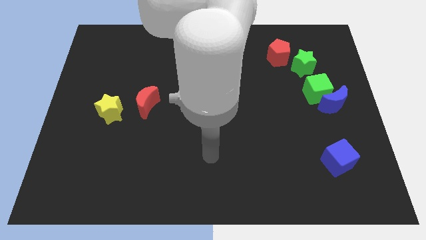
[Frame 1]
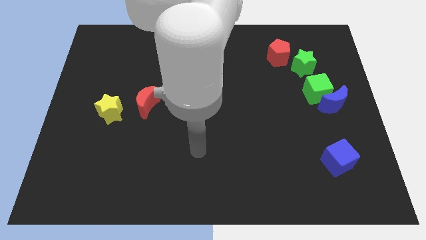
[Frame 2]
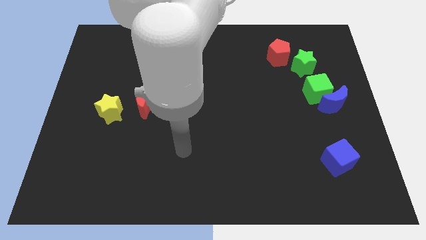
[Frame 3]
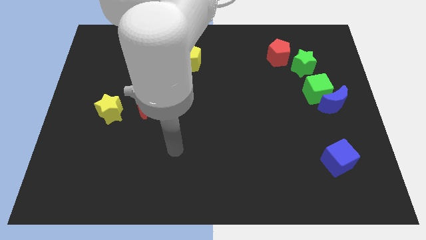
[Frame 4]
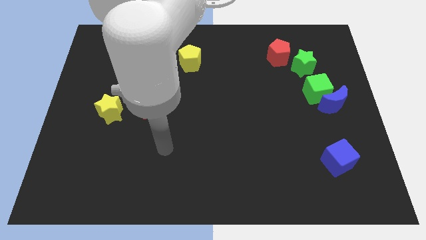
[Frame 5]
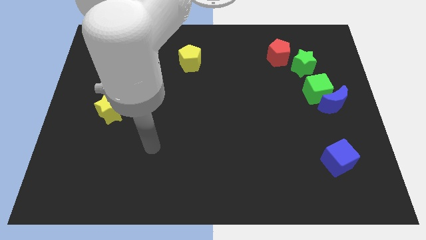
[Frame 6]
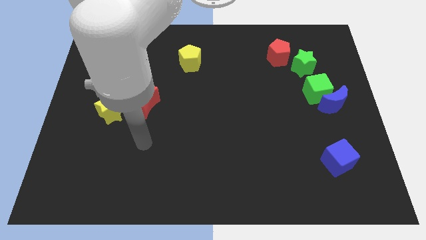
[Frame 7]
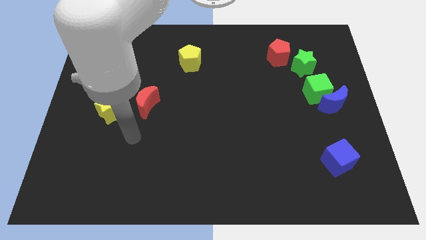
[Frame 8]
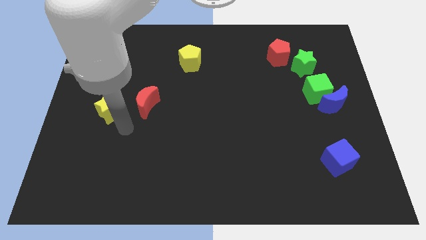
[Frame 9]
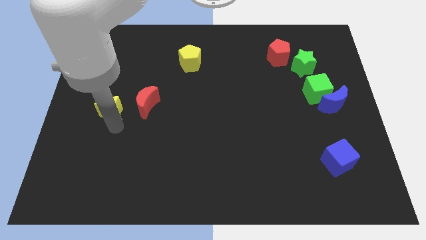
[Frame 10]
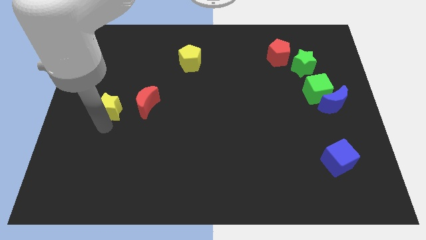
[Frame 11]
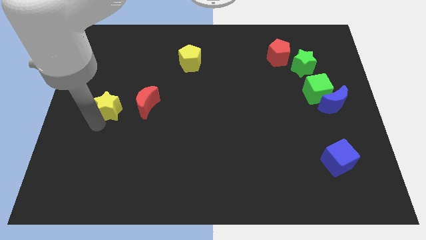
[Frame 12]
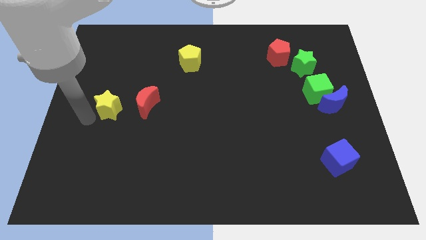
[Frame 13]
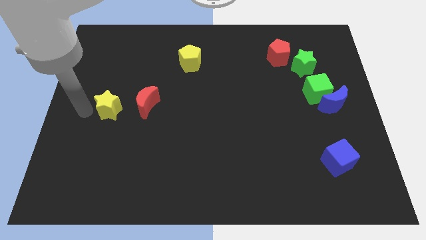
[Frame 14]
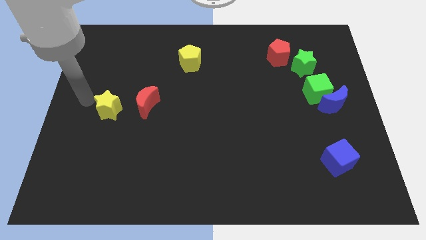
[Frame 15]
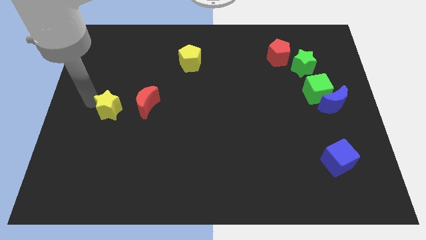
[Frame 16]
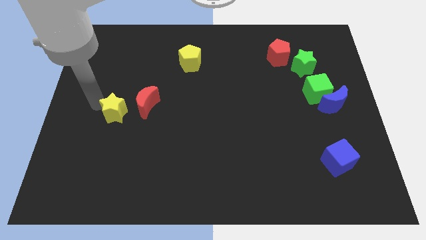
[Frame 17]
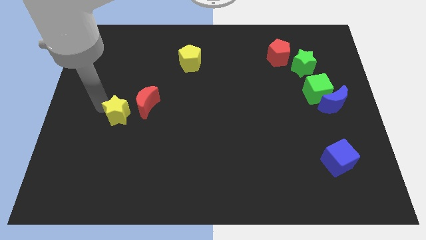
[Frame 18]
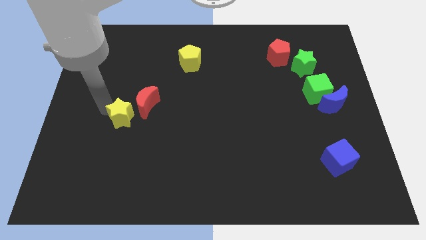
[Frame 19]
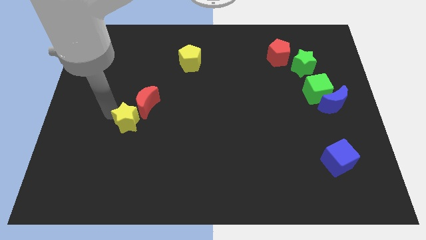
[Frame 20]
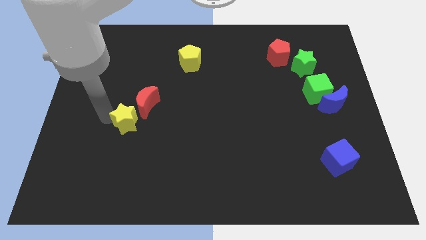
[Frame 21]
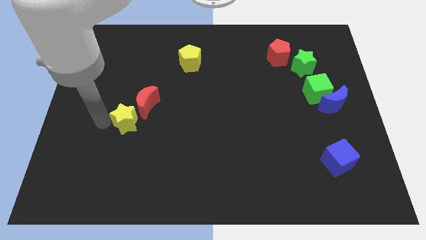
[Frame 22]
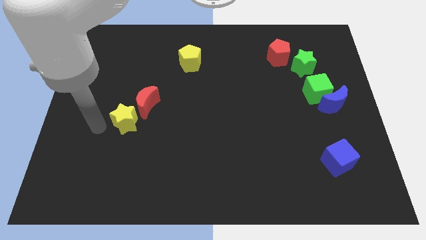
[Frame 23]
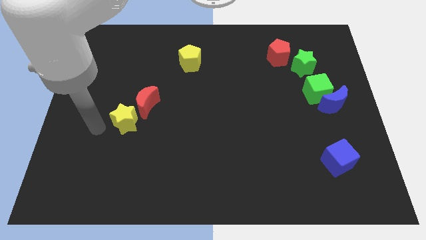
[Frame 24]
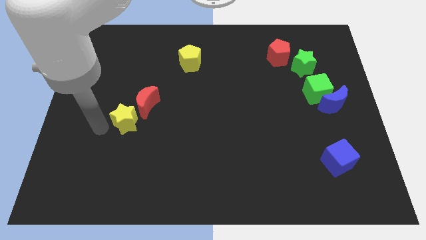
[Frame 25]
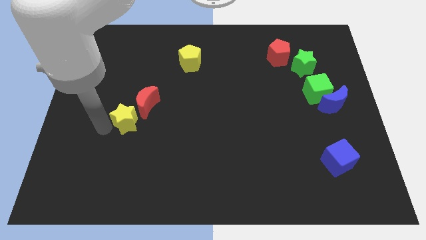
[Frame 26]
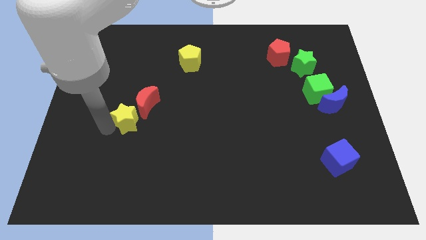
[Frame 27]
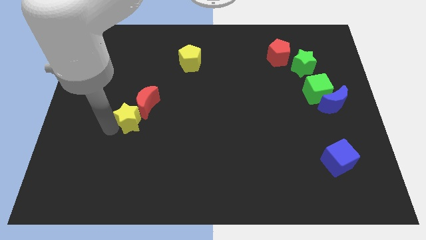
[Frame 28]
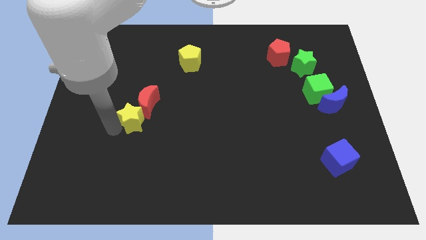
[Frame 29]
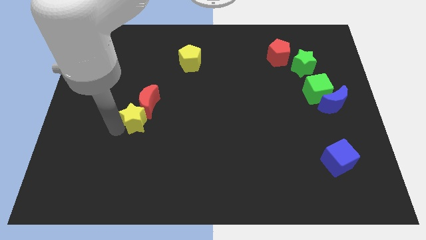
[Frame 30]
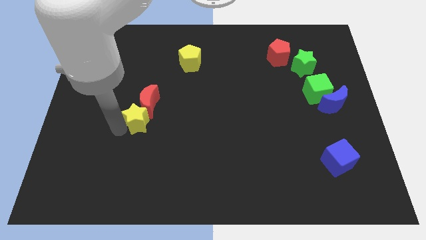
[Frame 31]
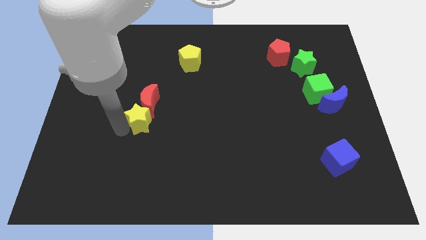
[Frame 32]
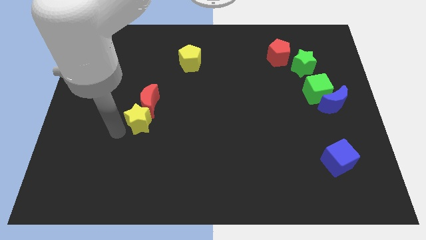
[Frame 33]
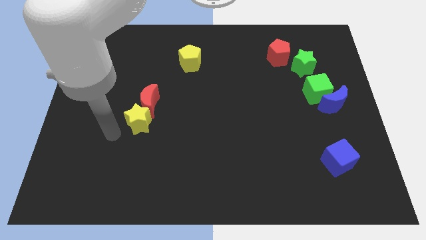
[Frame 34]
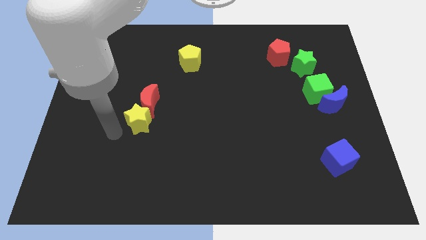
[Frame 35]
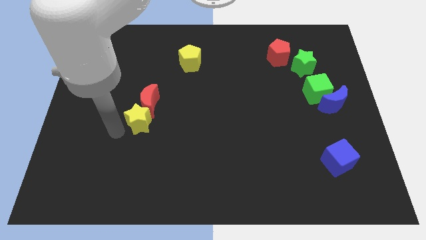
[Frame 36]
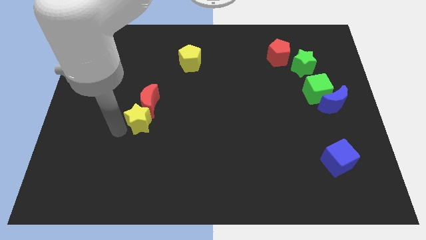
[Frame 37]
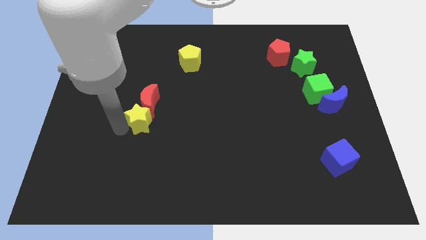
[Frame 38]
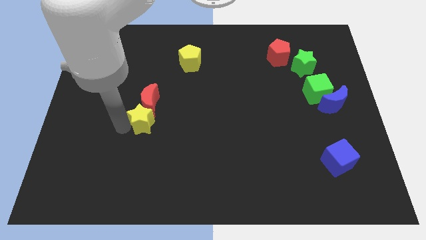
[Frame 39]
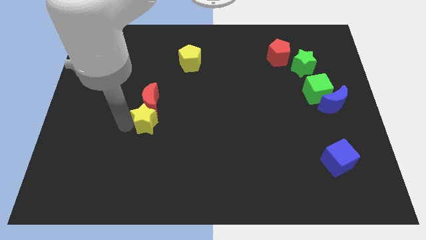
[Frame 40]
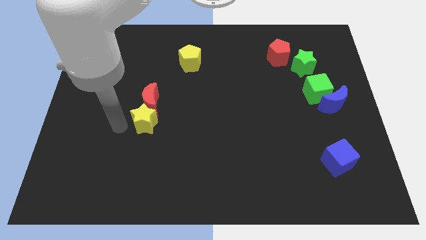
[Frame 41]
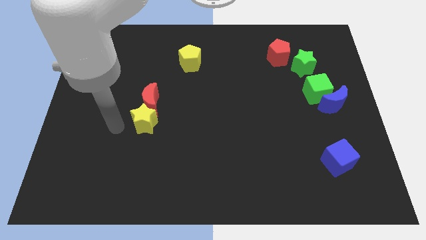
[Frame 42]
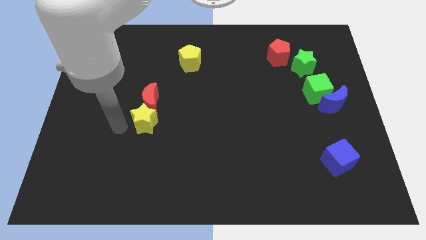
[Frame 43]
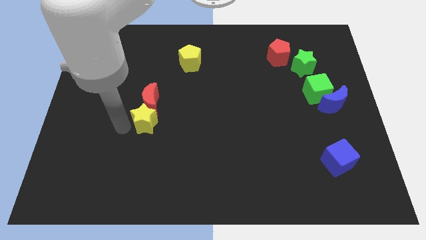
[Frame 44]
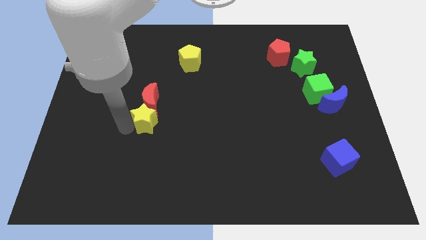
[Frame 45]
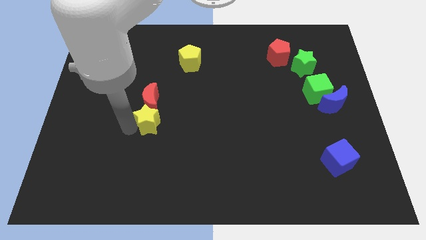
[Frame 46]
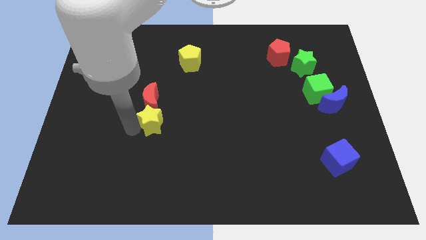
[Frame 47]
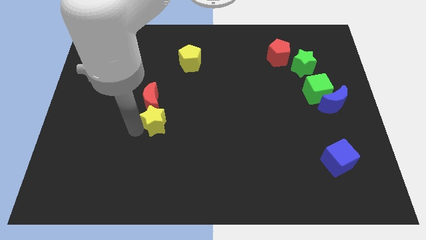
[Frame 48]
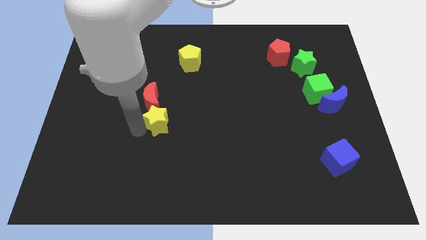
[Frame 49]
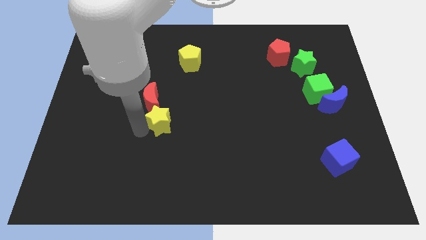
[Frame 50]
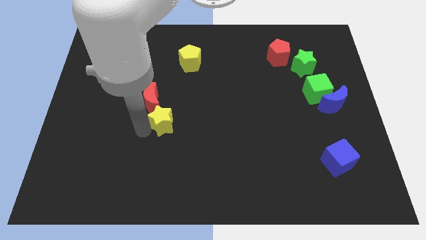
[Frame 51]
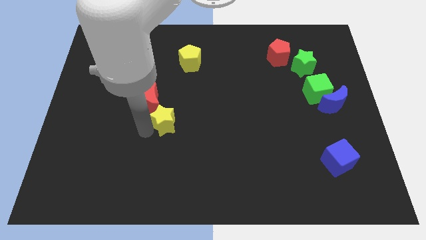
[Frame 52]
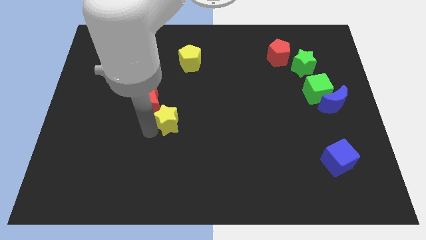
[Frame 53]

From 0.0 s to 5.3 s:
push the yellow star to the middle of the board

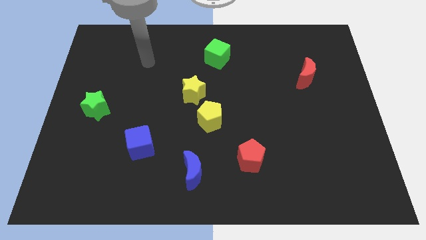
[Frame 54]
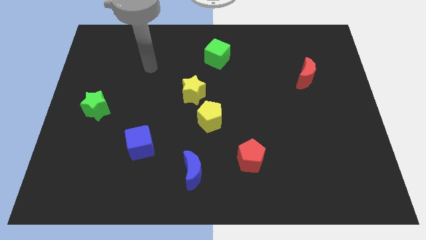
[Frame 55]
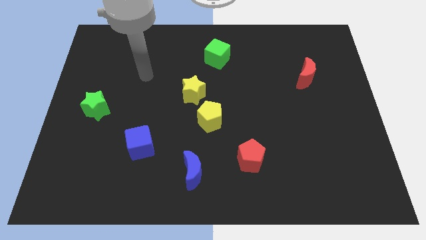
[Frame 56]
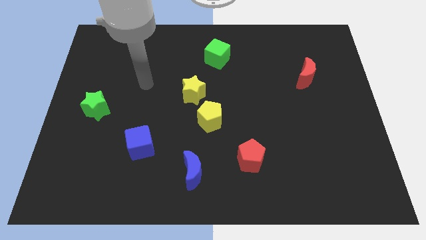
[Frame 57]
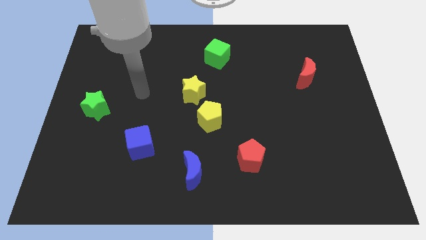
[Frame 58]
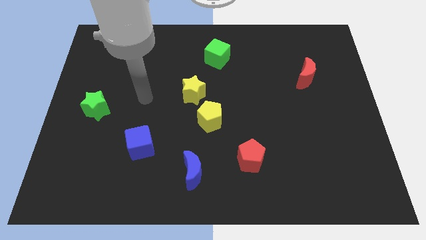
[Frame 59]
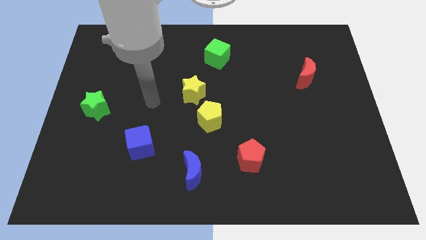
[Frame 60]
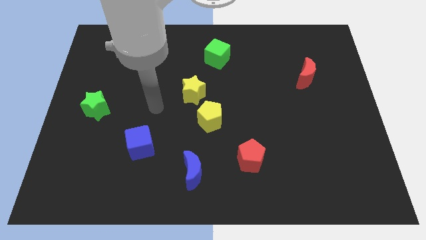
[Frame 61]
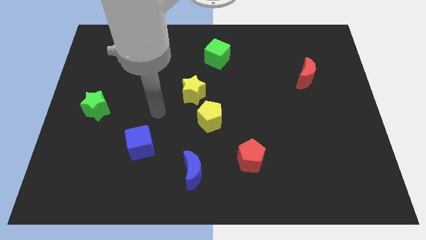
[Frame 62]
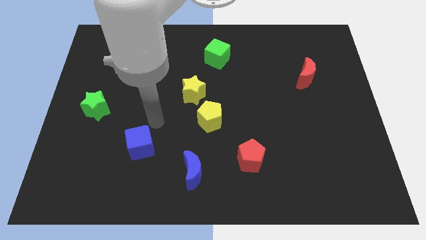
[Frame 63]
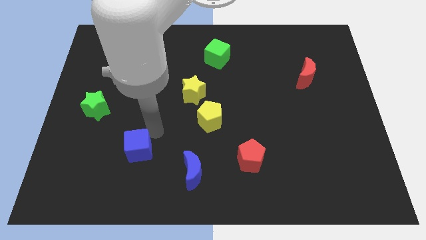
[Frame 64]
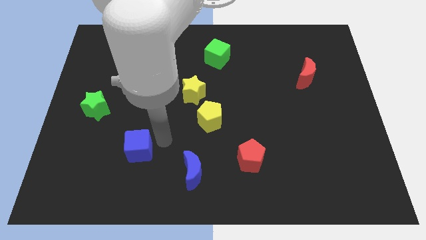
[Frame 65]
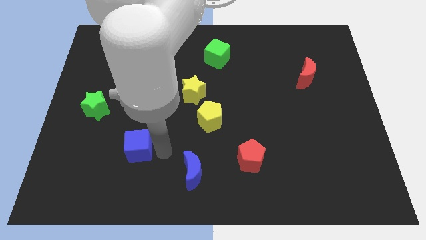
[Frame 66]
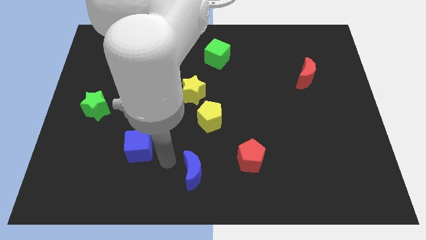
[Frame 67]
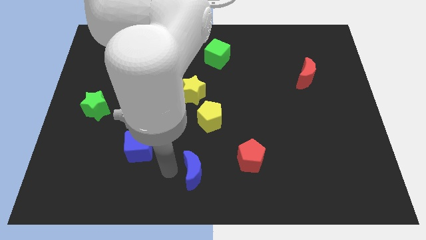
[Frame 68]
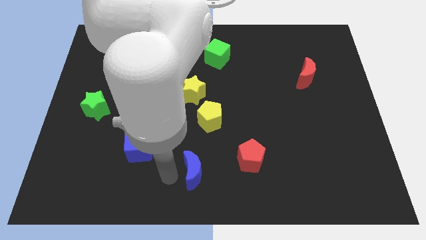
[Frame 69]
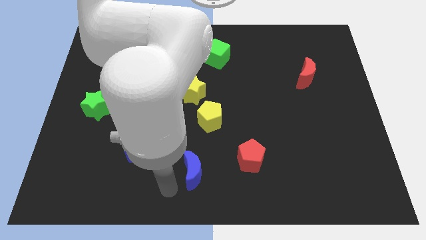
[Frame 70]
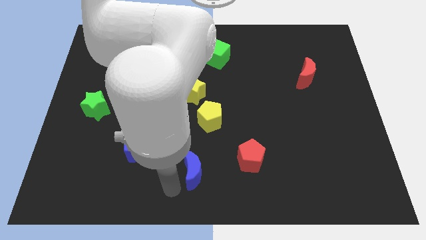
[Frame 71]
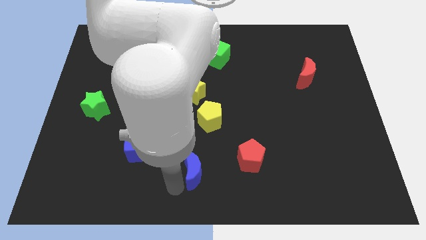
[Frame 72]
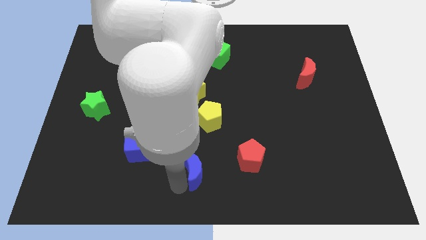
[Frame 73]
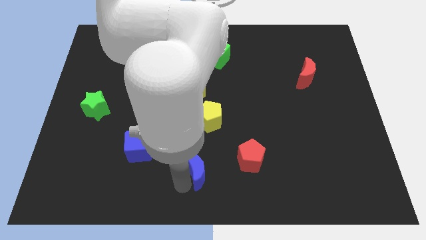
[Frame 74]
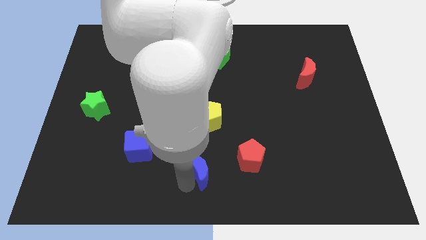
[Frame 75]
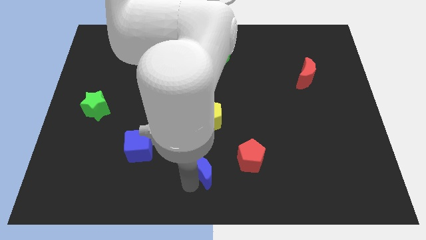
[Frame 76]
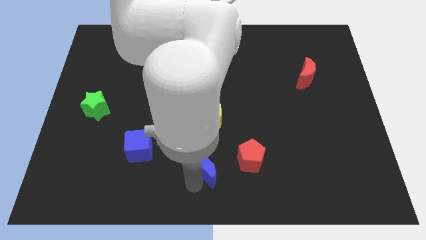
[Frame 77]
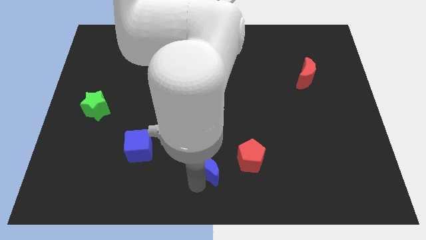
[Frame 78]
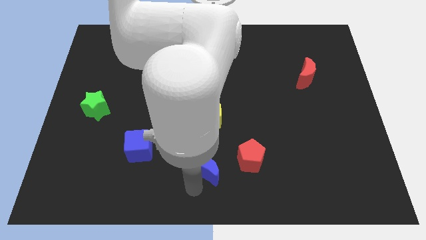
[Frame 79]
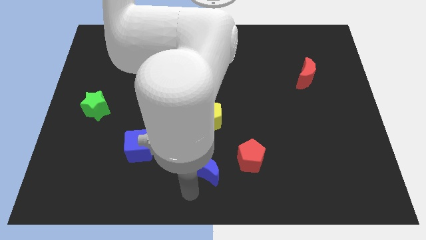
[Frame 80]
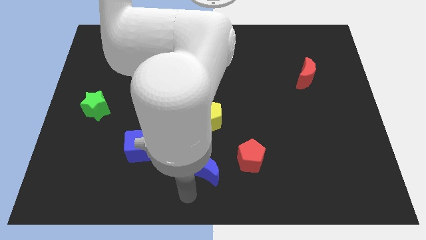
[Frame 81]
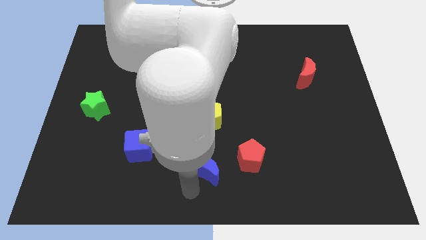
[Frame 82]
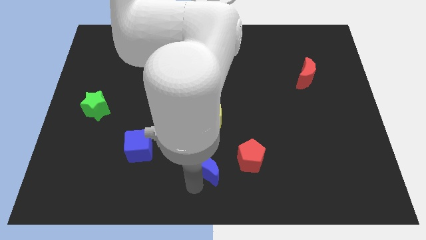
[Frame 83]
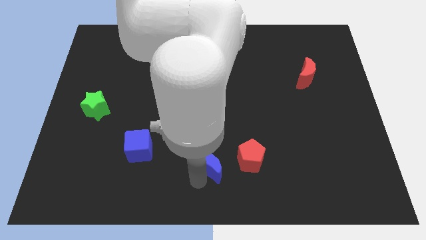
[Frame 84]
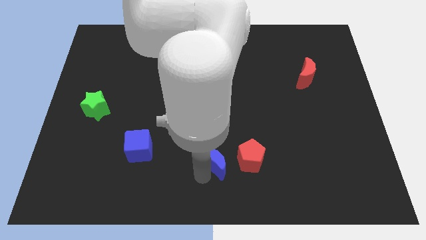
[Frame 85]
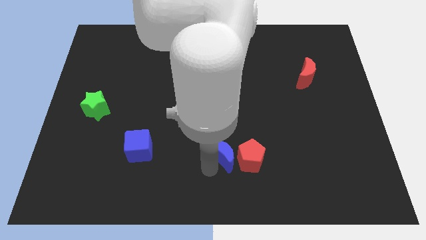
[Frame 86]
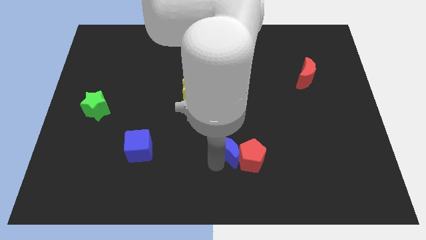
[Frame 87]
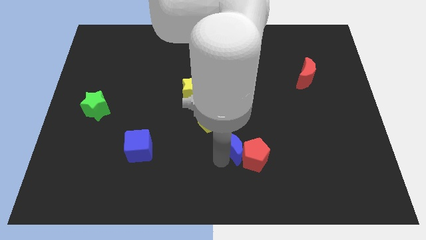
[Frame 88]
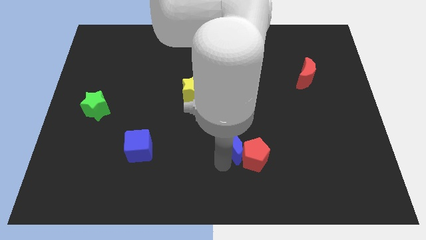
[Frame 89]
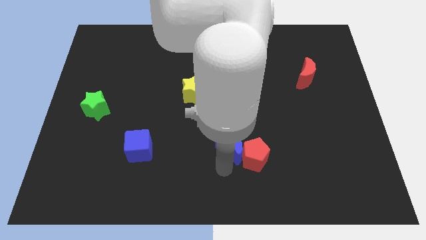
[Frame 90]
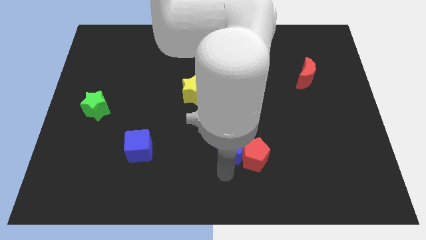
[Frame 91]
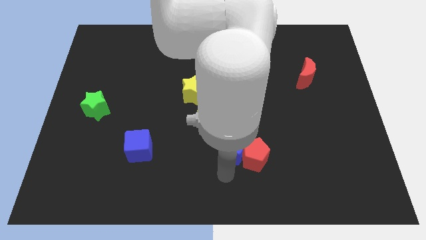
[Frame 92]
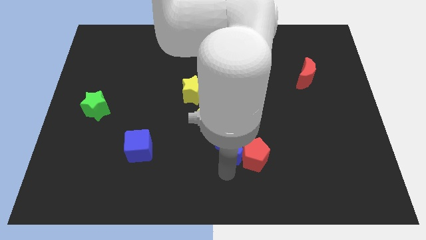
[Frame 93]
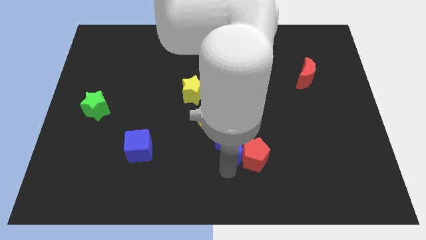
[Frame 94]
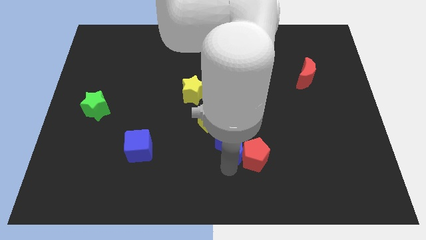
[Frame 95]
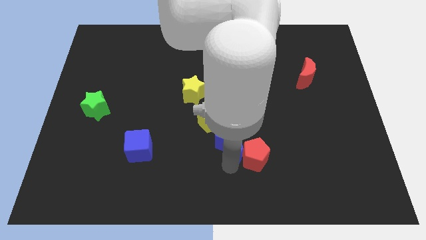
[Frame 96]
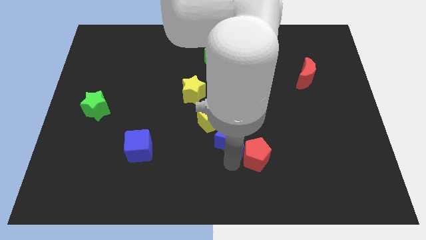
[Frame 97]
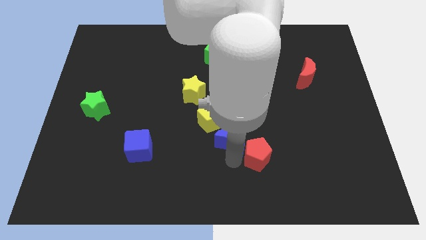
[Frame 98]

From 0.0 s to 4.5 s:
push the blue moon to the center
